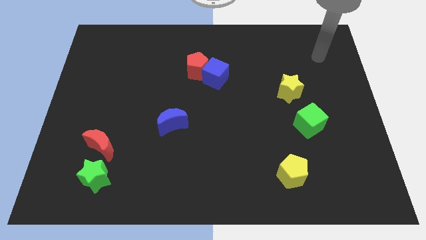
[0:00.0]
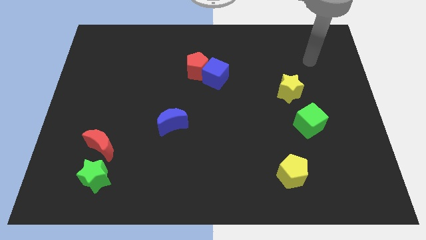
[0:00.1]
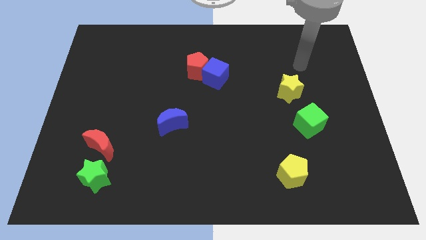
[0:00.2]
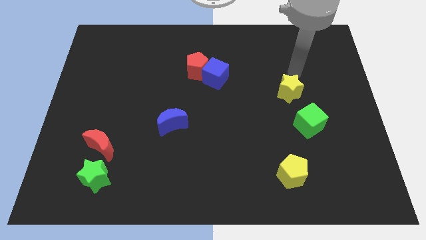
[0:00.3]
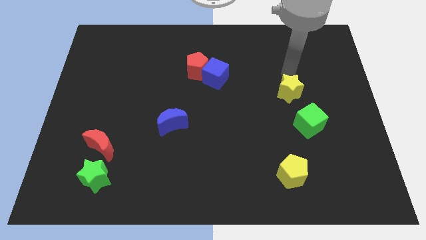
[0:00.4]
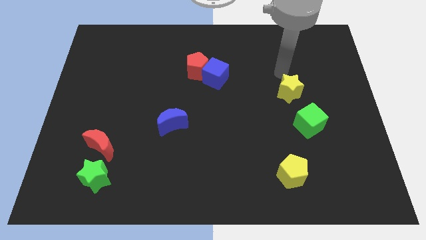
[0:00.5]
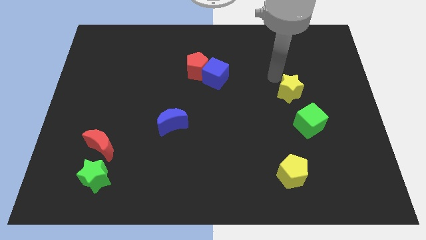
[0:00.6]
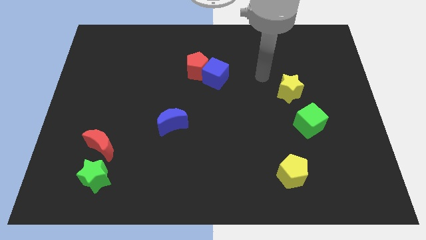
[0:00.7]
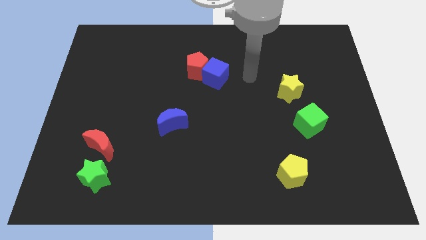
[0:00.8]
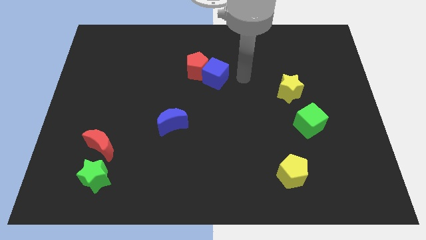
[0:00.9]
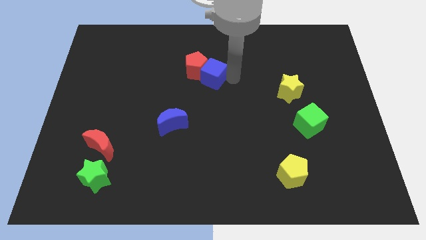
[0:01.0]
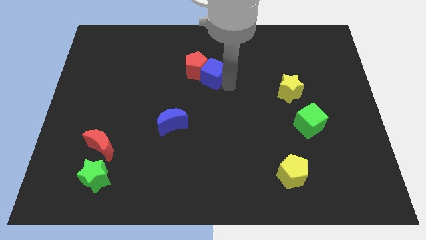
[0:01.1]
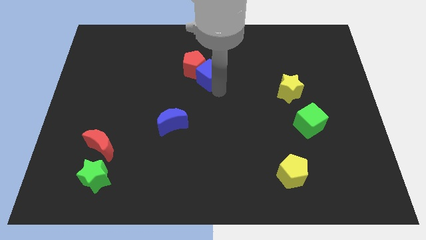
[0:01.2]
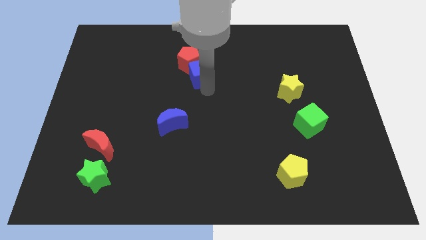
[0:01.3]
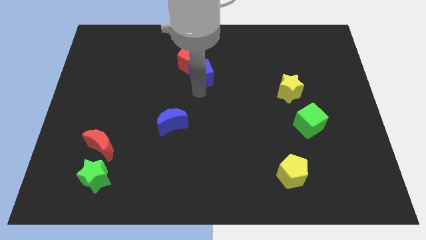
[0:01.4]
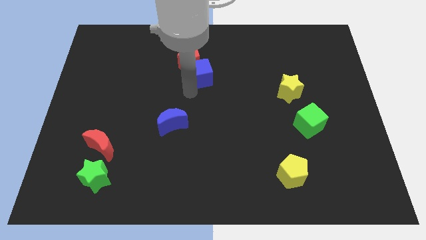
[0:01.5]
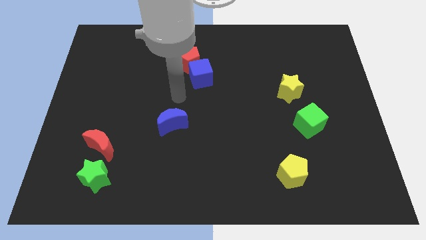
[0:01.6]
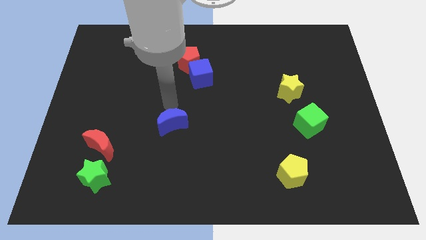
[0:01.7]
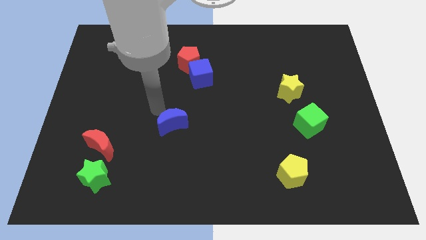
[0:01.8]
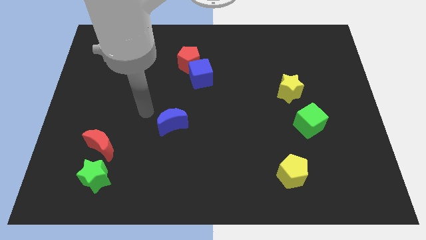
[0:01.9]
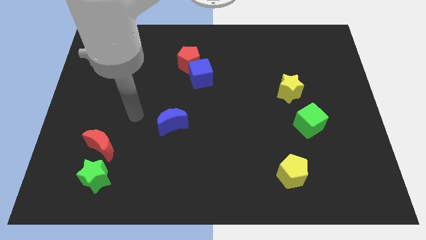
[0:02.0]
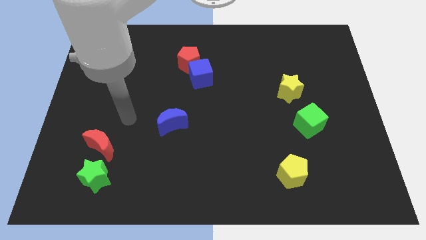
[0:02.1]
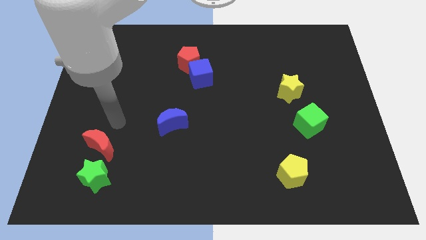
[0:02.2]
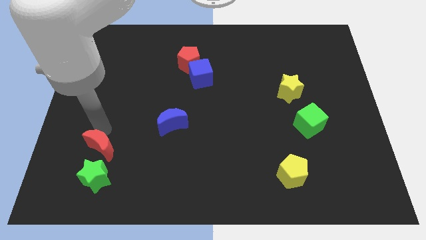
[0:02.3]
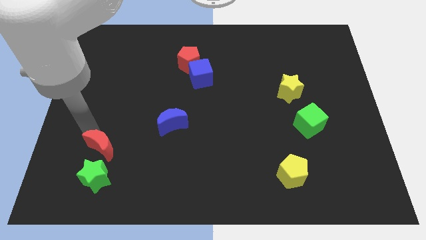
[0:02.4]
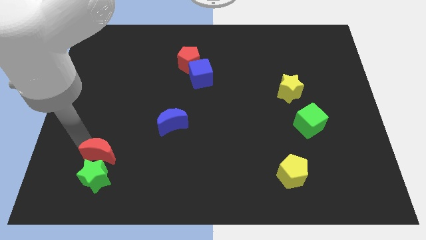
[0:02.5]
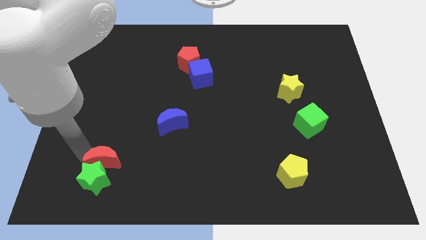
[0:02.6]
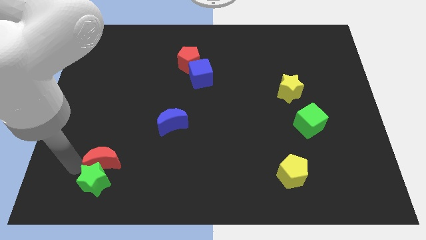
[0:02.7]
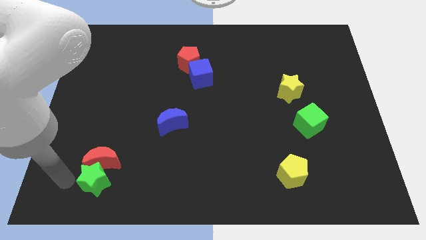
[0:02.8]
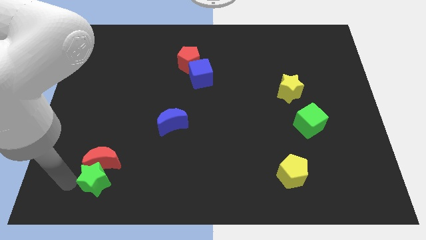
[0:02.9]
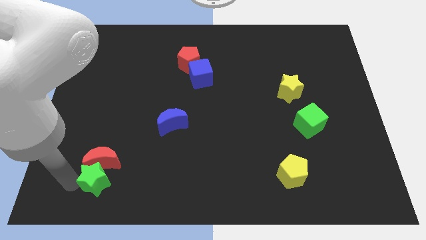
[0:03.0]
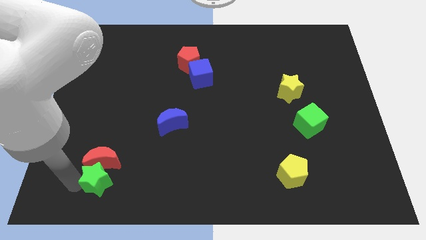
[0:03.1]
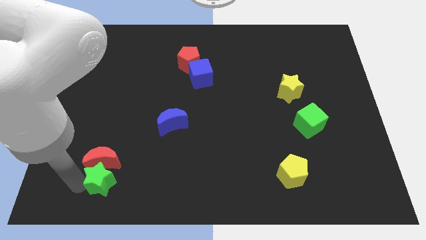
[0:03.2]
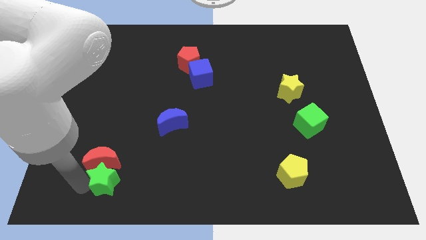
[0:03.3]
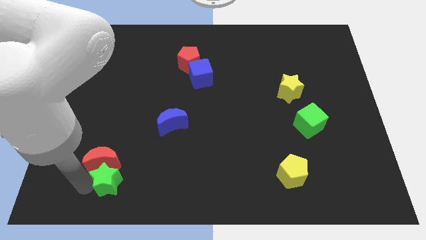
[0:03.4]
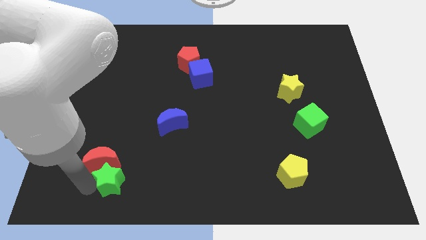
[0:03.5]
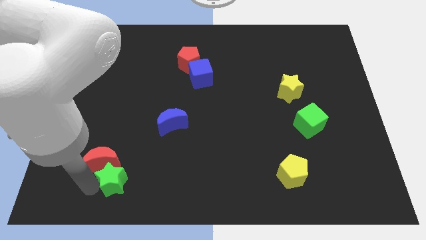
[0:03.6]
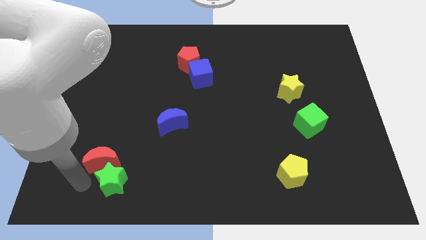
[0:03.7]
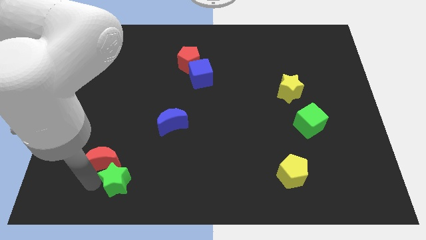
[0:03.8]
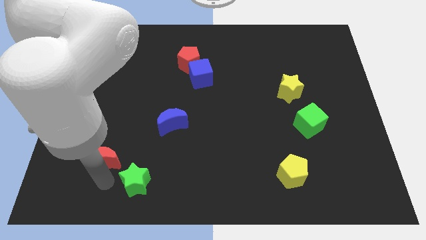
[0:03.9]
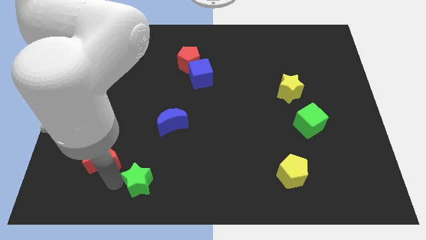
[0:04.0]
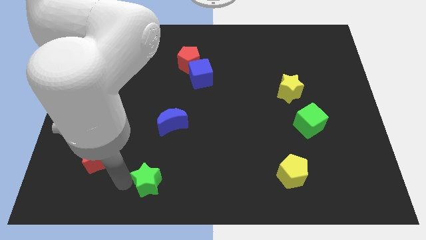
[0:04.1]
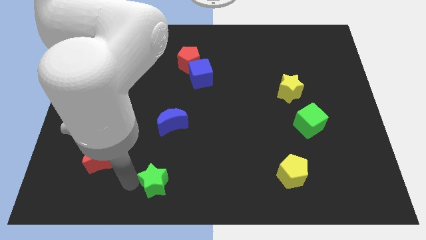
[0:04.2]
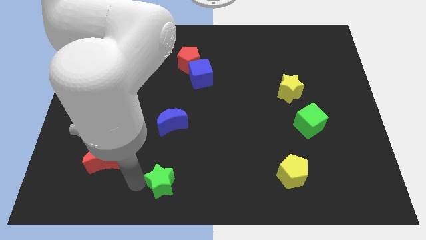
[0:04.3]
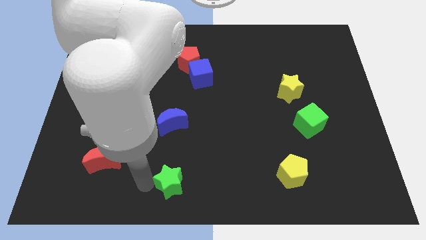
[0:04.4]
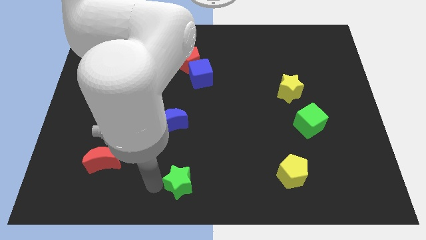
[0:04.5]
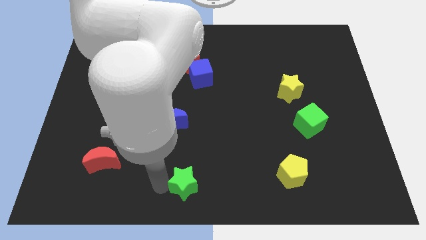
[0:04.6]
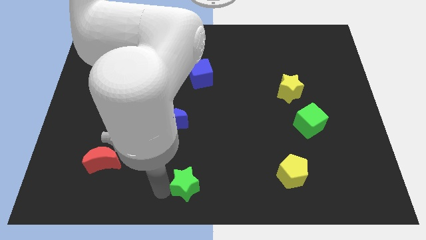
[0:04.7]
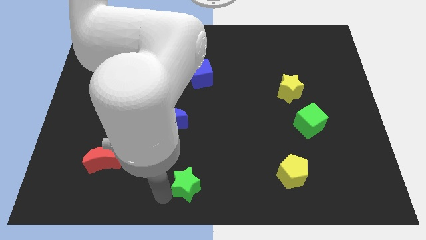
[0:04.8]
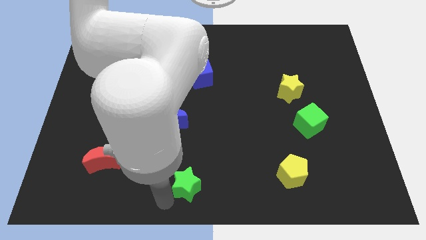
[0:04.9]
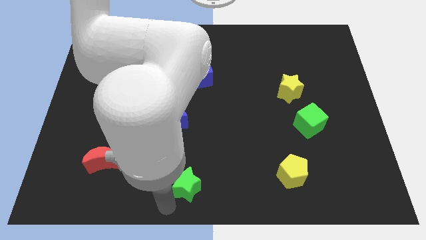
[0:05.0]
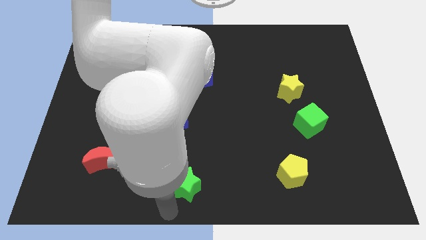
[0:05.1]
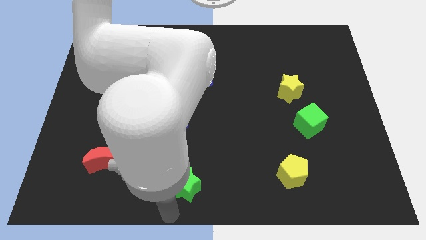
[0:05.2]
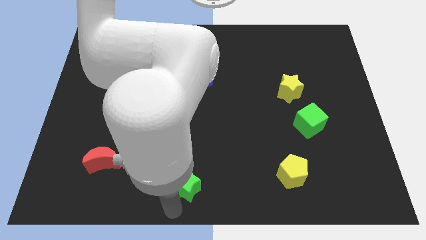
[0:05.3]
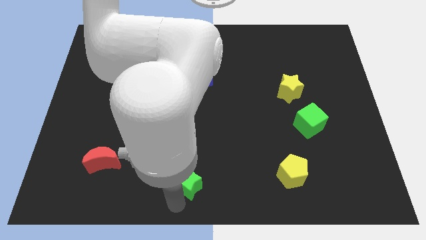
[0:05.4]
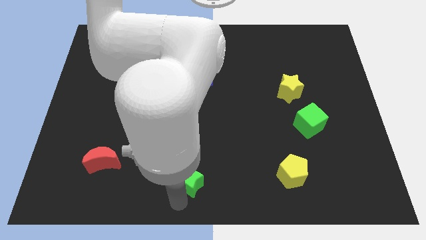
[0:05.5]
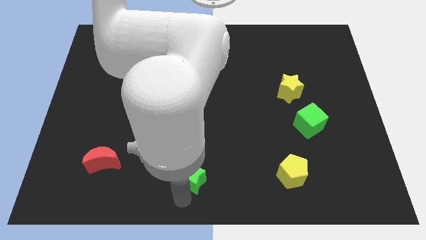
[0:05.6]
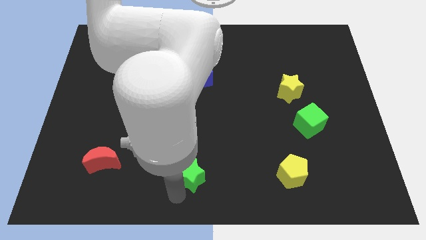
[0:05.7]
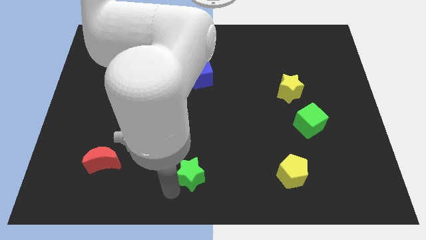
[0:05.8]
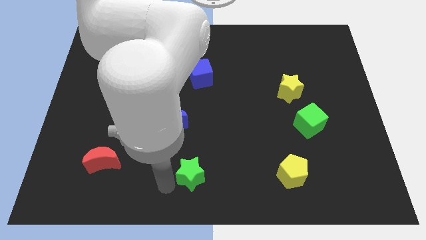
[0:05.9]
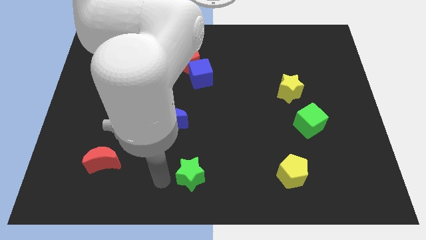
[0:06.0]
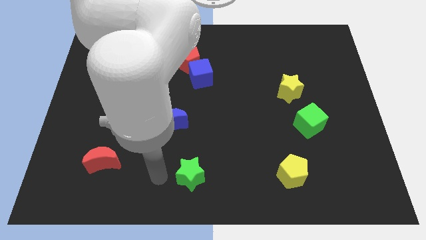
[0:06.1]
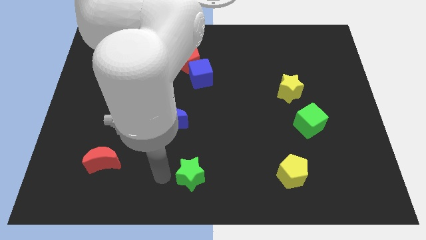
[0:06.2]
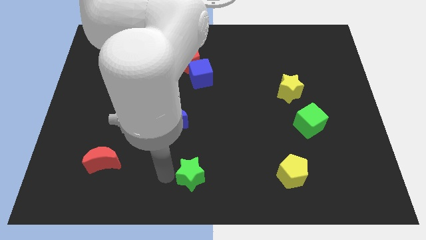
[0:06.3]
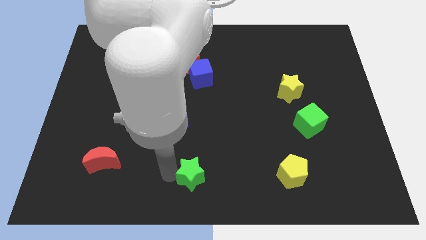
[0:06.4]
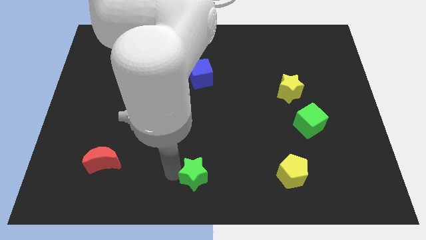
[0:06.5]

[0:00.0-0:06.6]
move the green star to the right

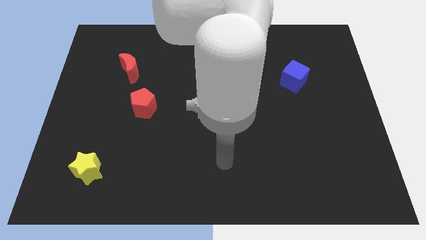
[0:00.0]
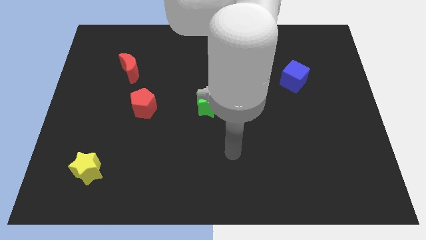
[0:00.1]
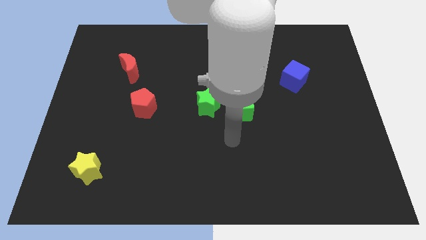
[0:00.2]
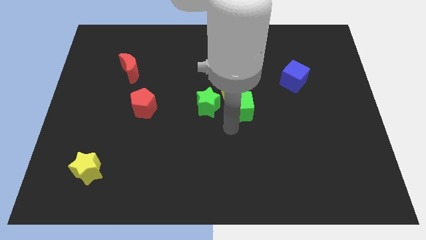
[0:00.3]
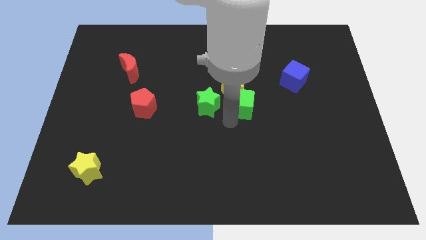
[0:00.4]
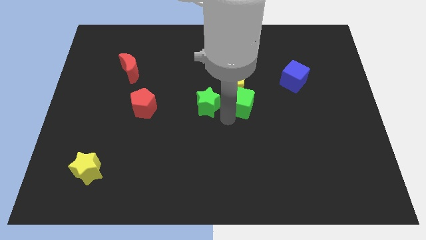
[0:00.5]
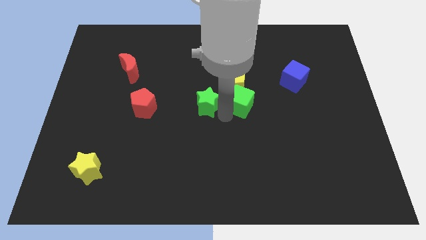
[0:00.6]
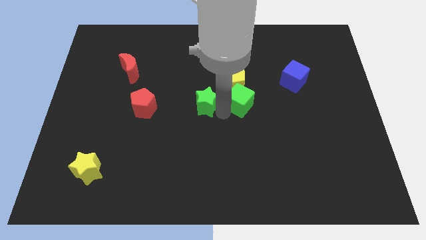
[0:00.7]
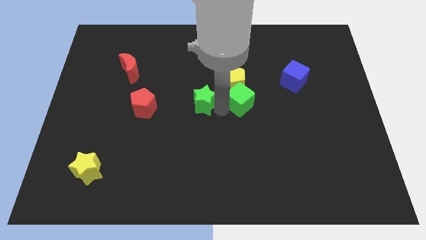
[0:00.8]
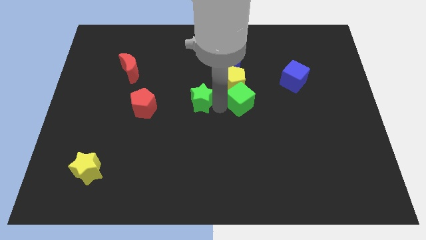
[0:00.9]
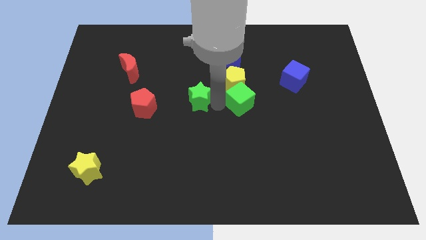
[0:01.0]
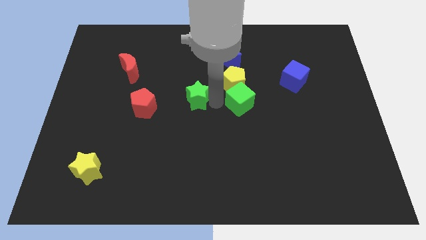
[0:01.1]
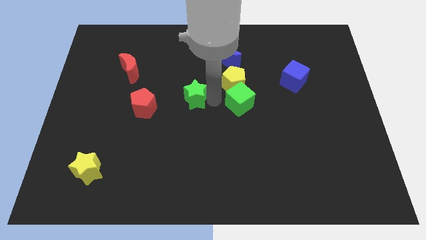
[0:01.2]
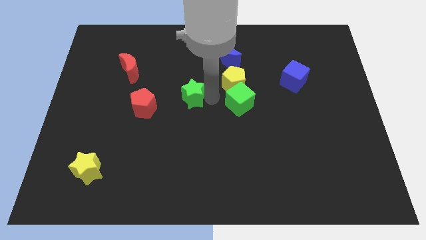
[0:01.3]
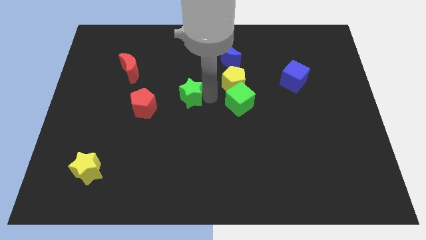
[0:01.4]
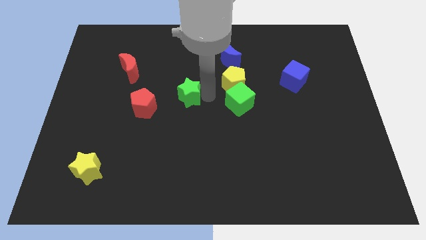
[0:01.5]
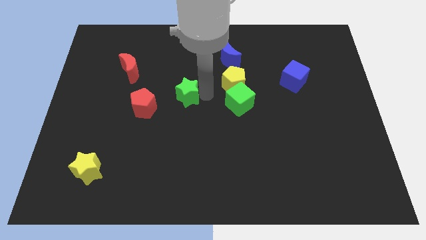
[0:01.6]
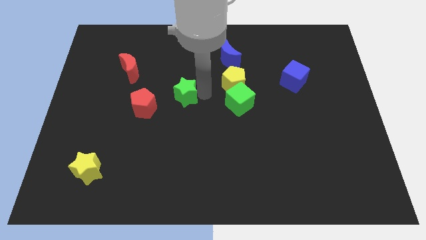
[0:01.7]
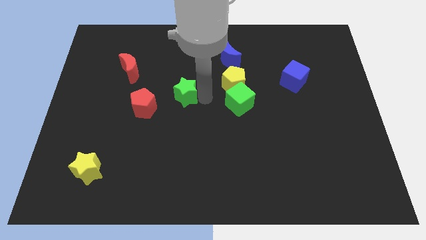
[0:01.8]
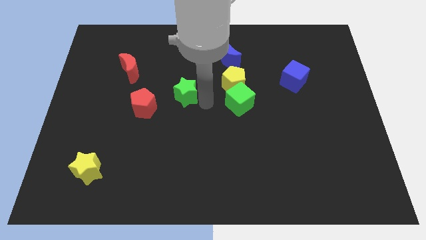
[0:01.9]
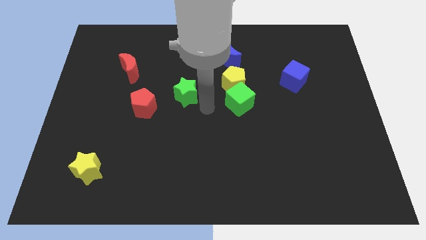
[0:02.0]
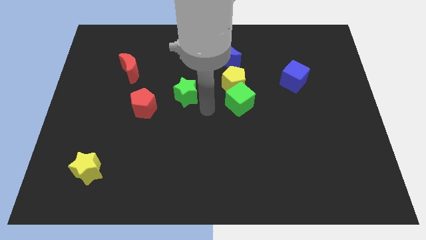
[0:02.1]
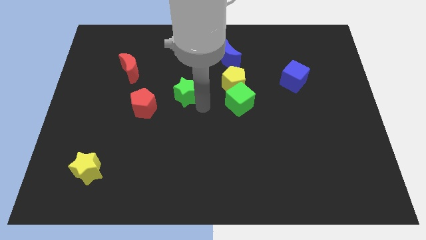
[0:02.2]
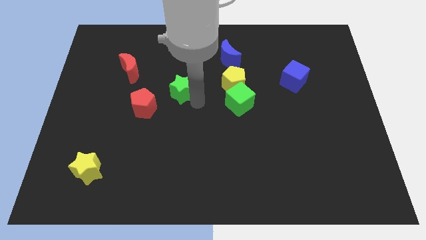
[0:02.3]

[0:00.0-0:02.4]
slightly slide the green star diagonally upwards and to the left
